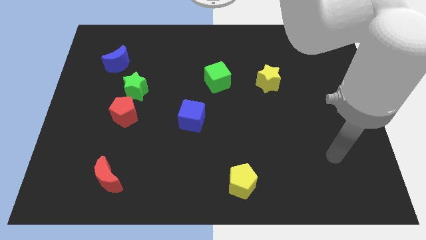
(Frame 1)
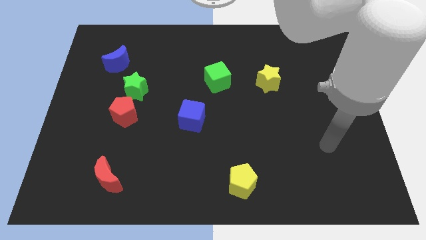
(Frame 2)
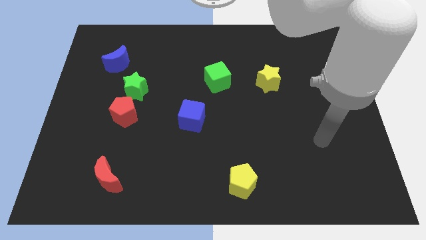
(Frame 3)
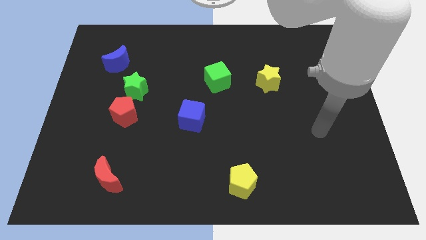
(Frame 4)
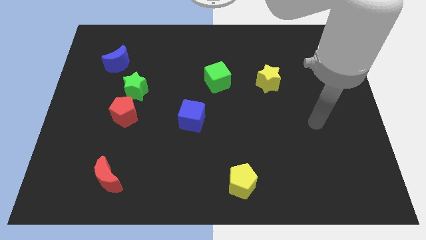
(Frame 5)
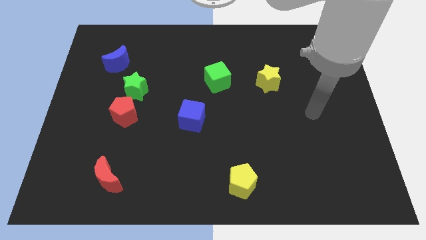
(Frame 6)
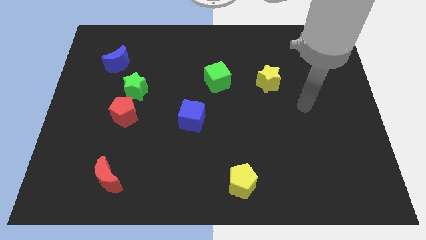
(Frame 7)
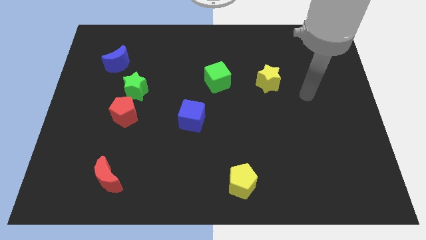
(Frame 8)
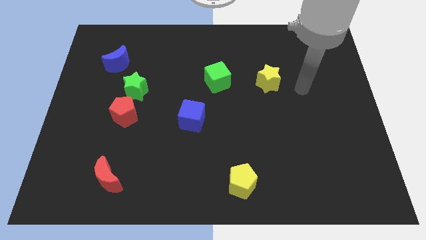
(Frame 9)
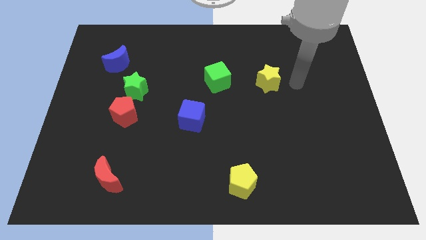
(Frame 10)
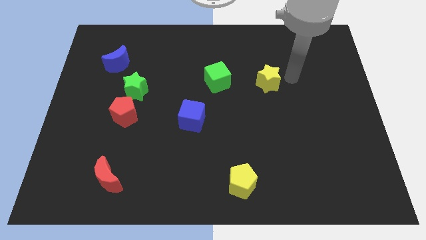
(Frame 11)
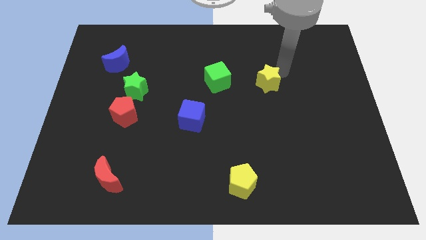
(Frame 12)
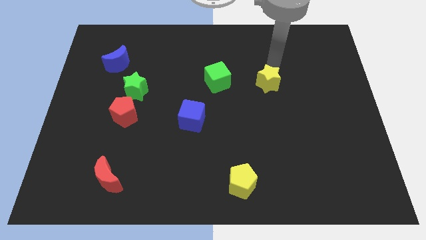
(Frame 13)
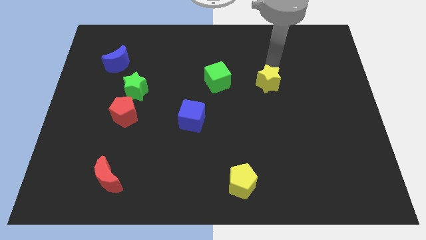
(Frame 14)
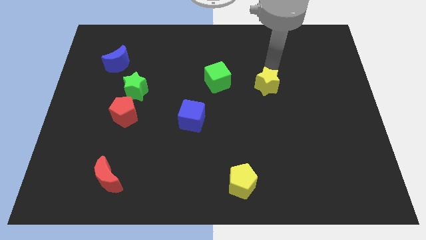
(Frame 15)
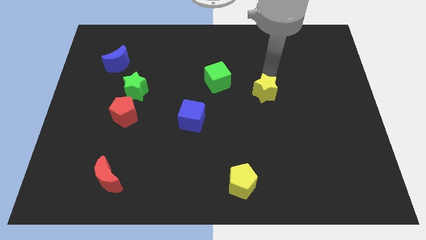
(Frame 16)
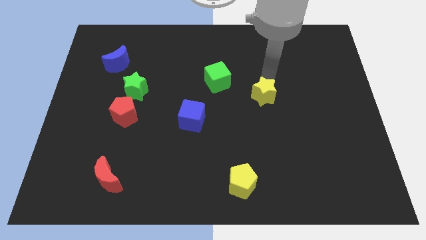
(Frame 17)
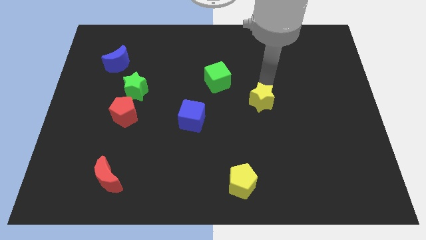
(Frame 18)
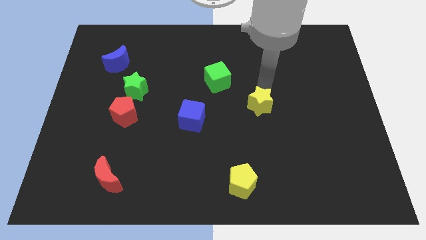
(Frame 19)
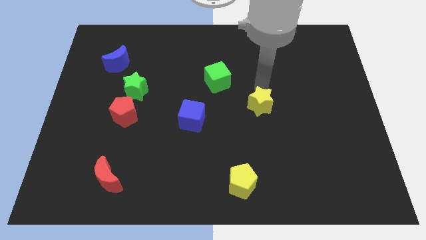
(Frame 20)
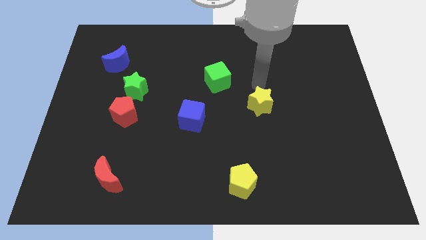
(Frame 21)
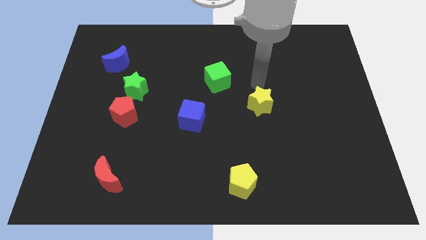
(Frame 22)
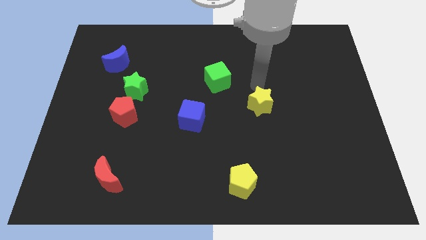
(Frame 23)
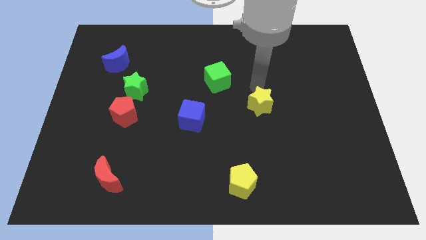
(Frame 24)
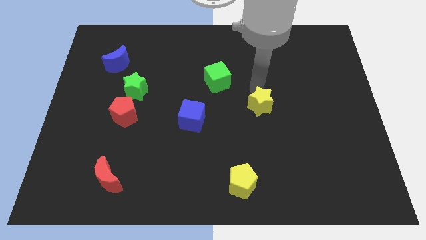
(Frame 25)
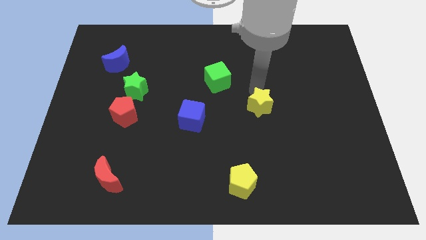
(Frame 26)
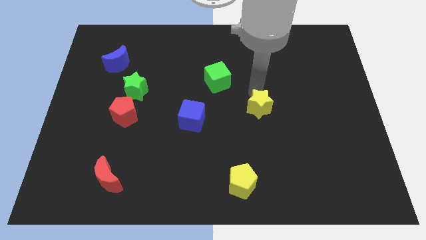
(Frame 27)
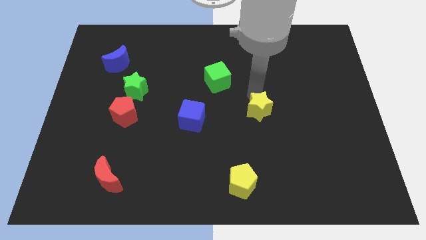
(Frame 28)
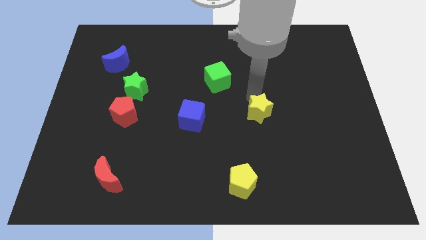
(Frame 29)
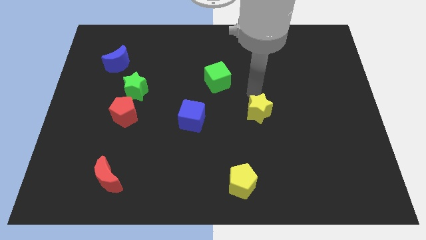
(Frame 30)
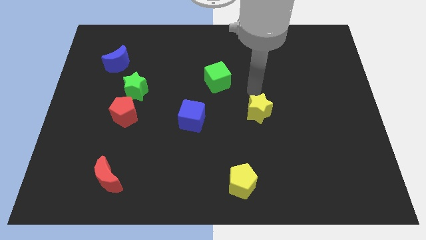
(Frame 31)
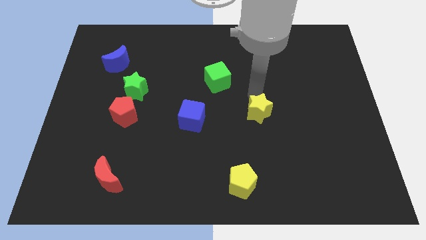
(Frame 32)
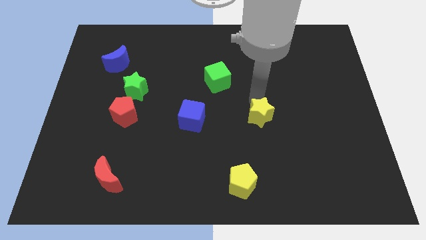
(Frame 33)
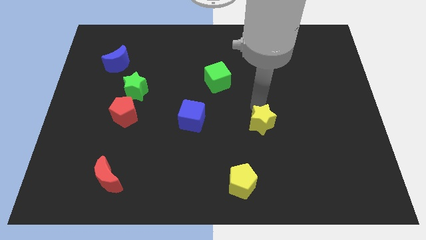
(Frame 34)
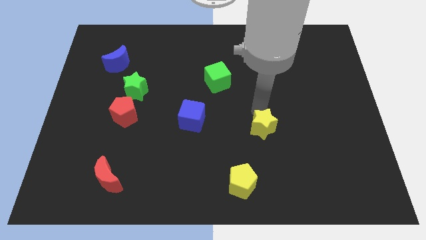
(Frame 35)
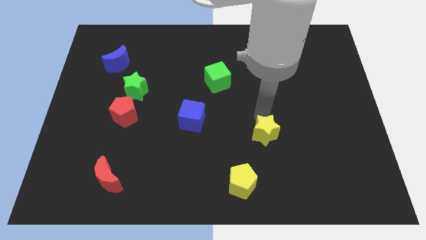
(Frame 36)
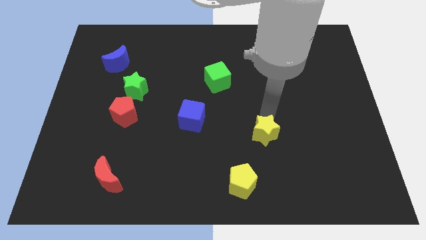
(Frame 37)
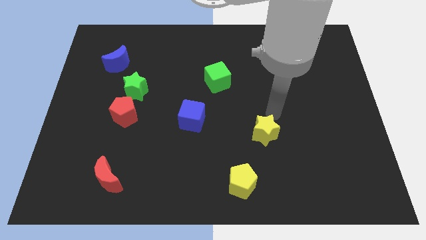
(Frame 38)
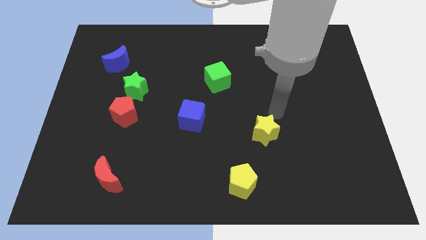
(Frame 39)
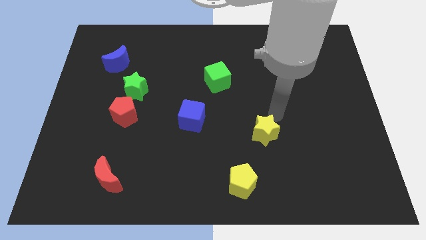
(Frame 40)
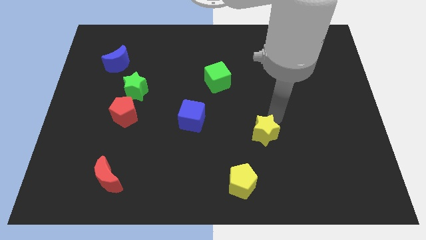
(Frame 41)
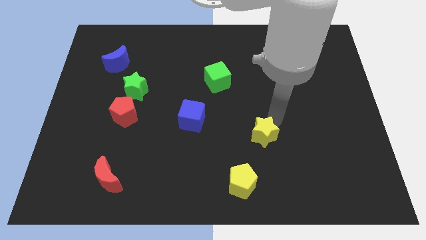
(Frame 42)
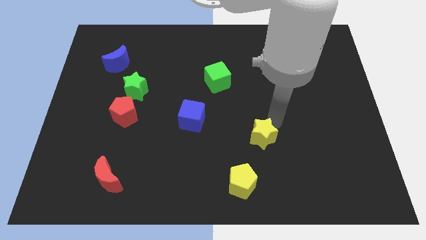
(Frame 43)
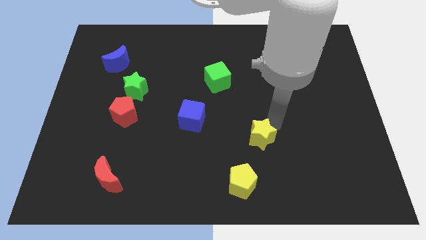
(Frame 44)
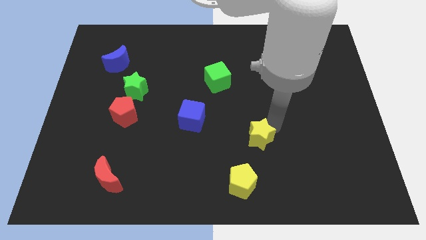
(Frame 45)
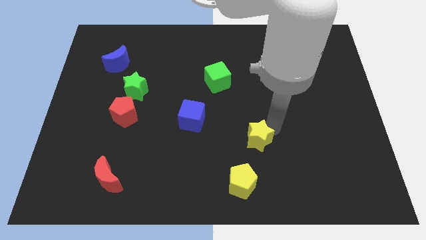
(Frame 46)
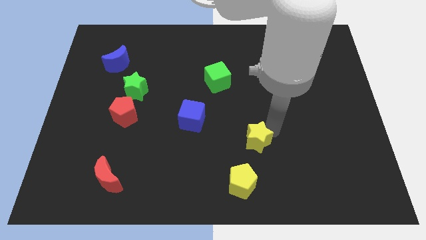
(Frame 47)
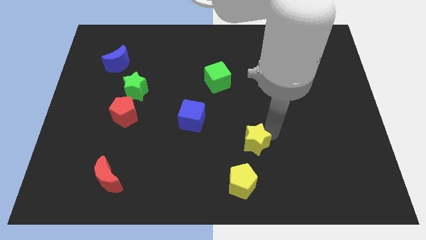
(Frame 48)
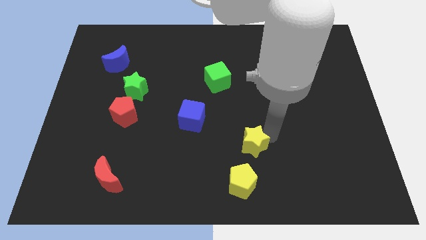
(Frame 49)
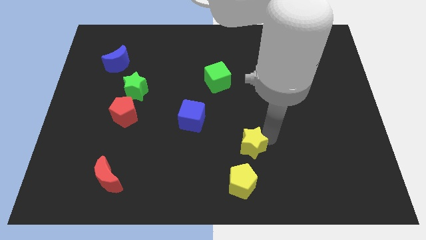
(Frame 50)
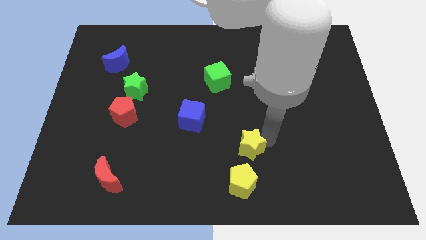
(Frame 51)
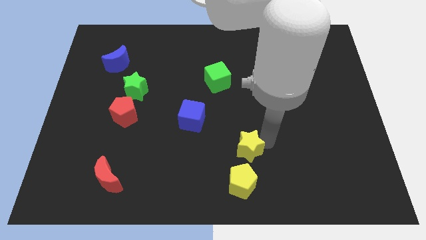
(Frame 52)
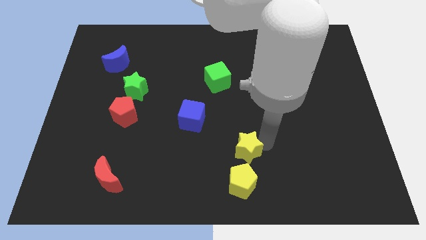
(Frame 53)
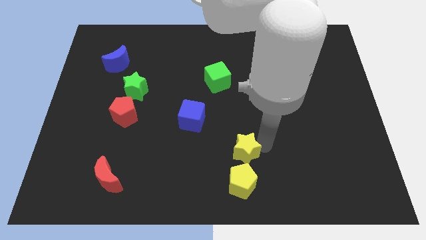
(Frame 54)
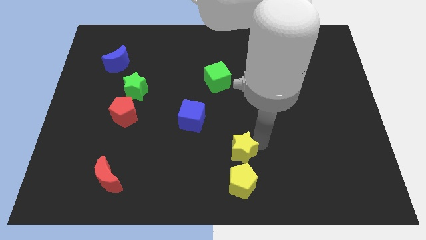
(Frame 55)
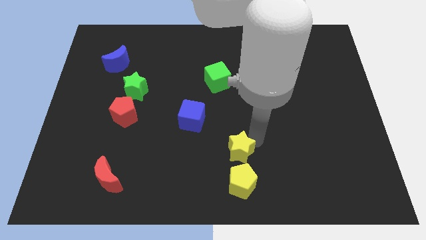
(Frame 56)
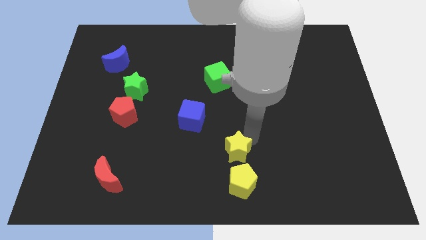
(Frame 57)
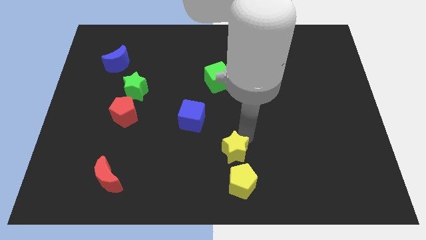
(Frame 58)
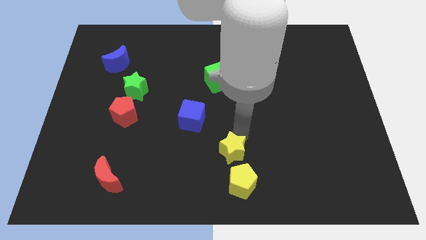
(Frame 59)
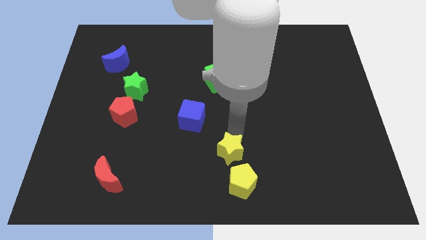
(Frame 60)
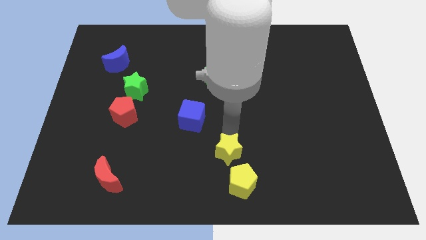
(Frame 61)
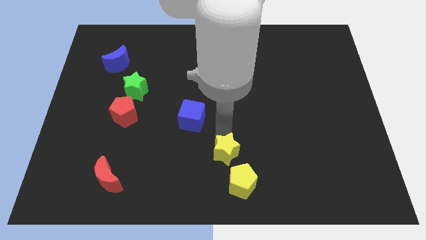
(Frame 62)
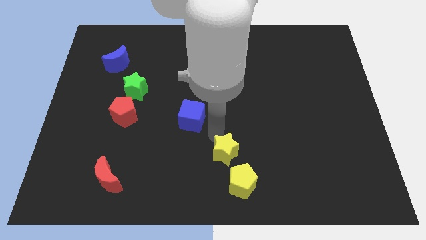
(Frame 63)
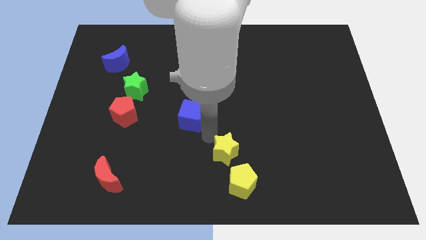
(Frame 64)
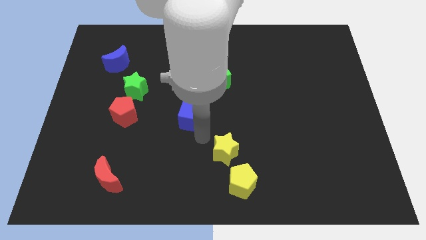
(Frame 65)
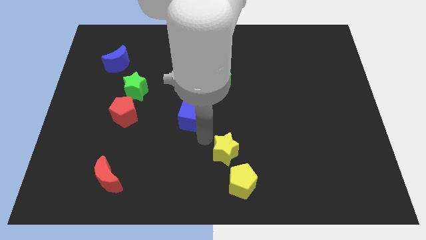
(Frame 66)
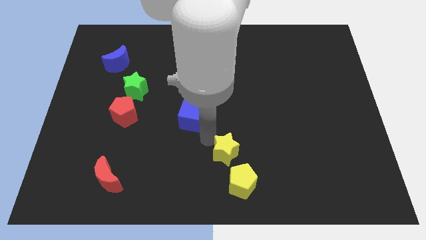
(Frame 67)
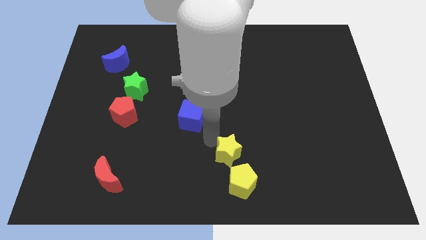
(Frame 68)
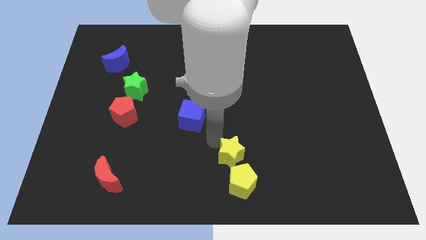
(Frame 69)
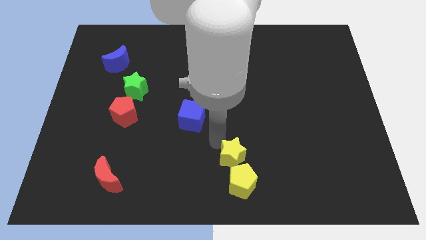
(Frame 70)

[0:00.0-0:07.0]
put the yellow star to the yellow pentagon
